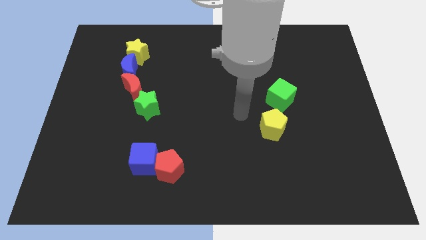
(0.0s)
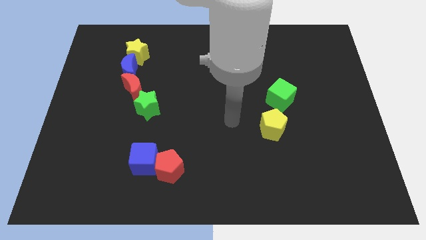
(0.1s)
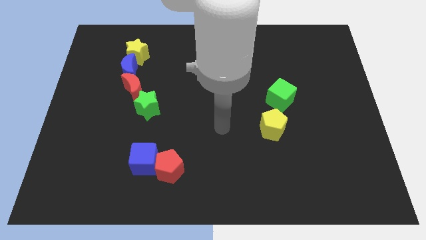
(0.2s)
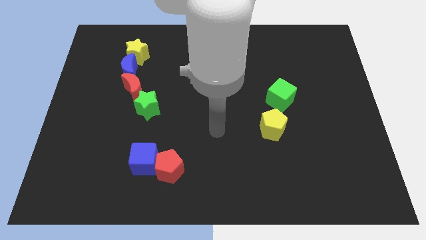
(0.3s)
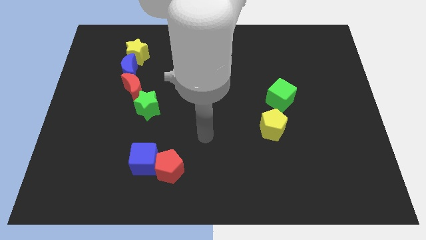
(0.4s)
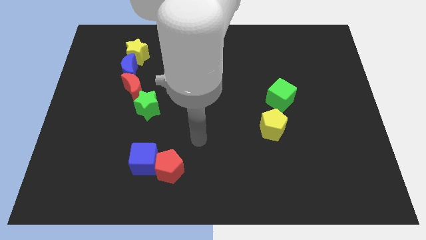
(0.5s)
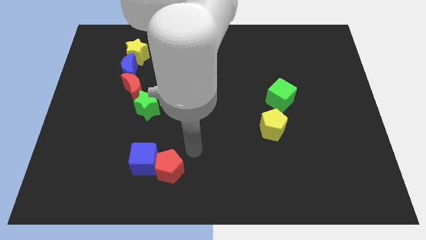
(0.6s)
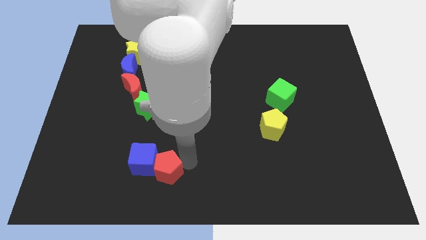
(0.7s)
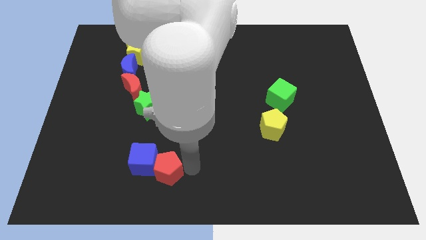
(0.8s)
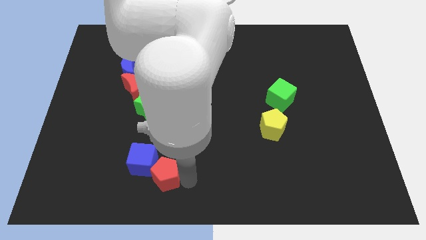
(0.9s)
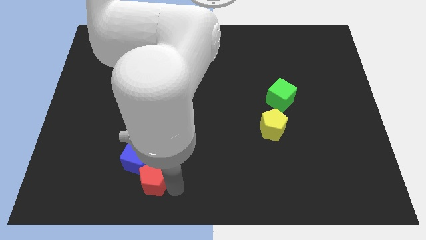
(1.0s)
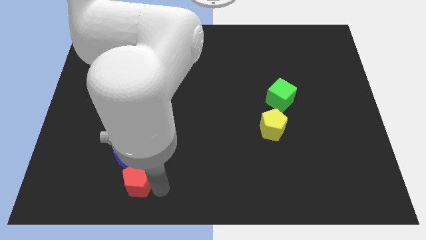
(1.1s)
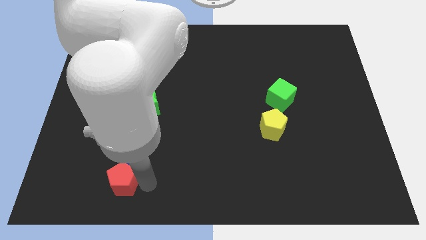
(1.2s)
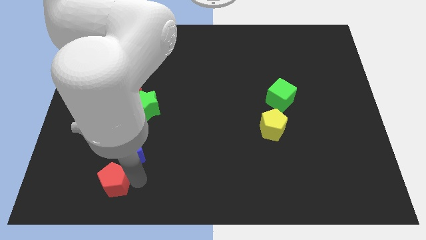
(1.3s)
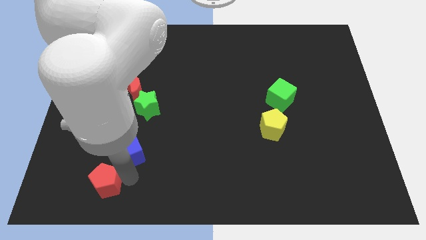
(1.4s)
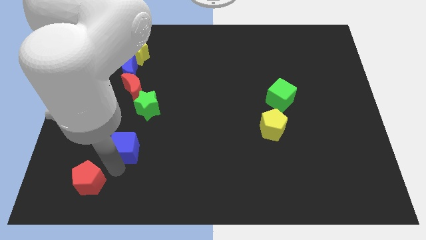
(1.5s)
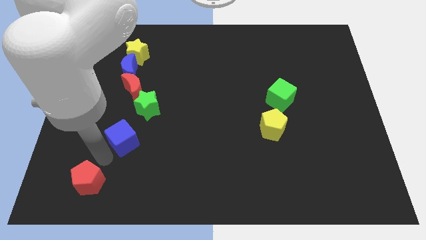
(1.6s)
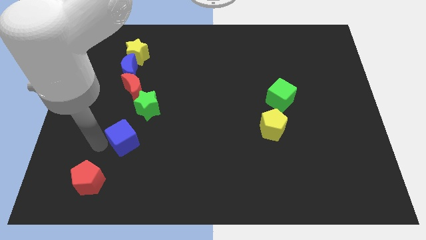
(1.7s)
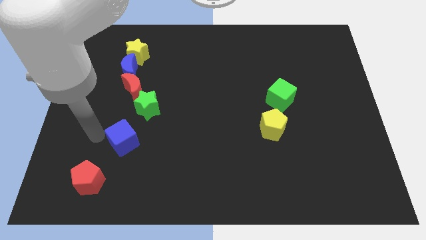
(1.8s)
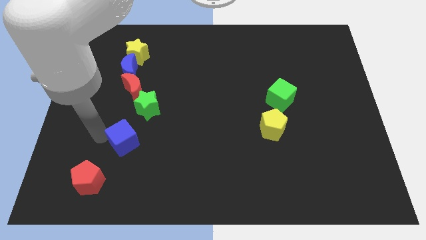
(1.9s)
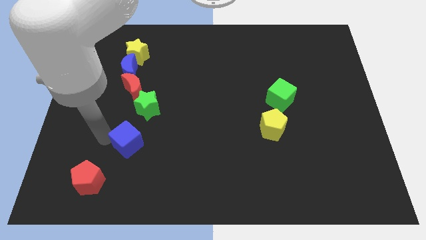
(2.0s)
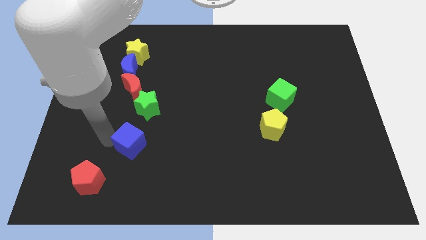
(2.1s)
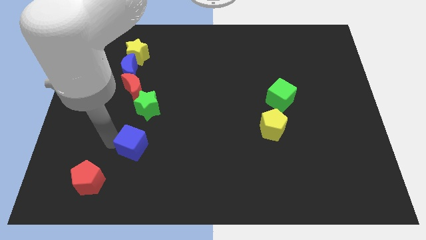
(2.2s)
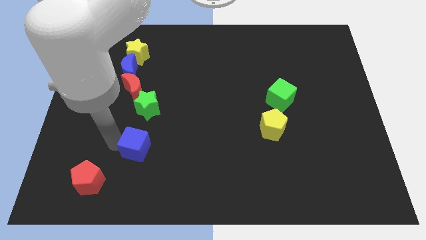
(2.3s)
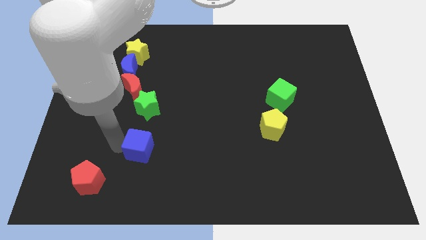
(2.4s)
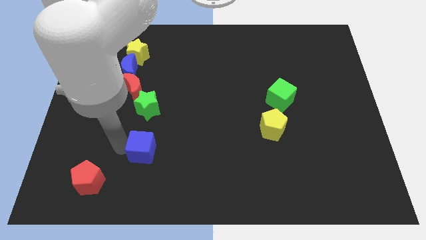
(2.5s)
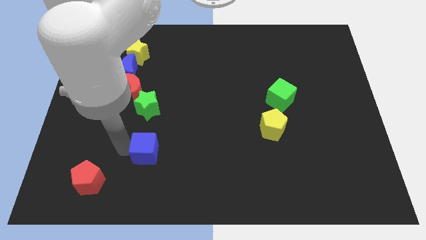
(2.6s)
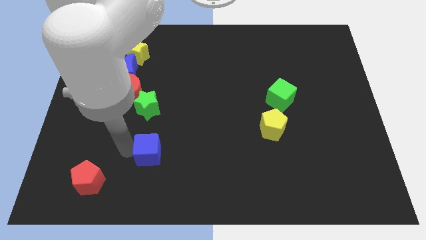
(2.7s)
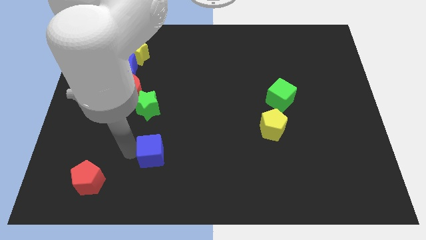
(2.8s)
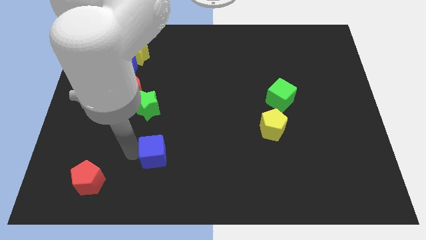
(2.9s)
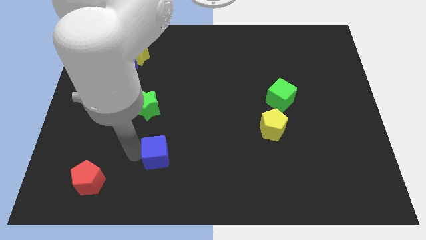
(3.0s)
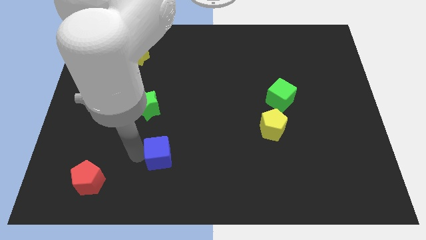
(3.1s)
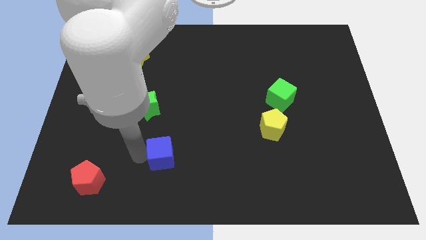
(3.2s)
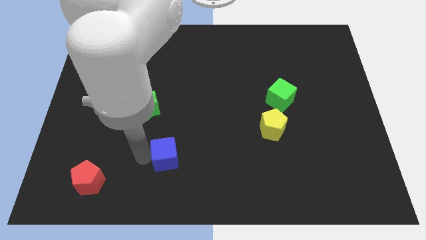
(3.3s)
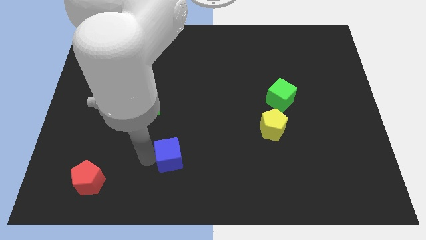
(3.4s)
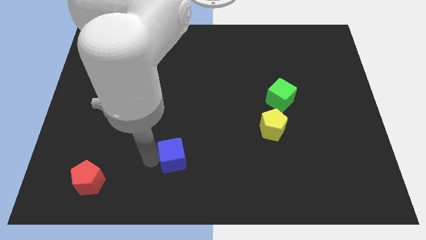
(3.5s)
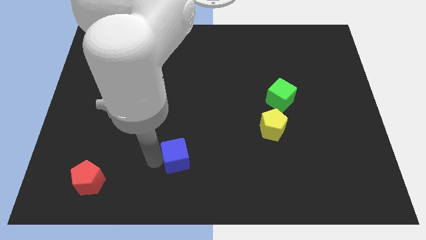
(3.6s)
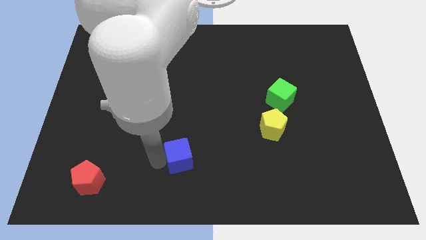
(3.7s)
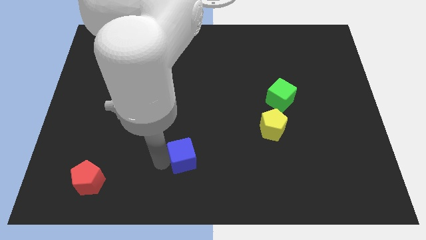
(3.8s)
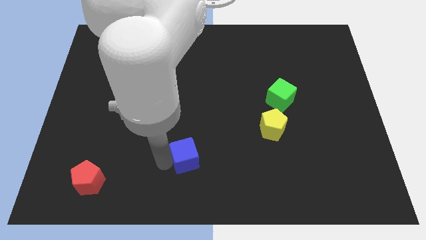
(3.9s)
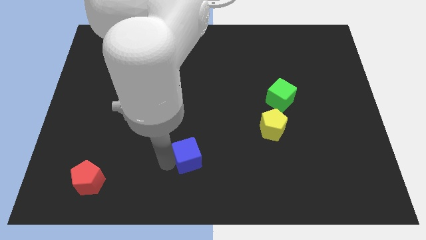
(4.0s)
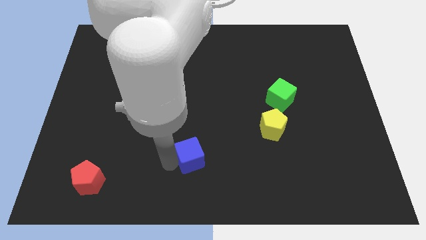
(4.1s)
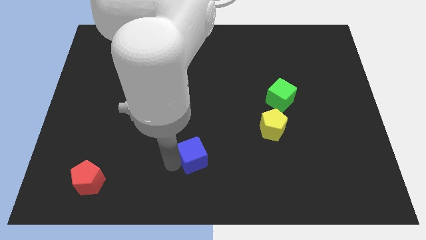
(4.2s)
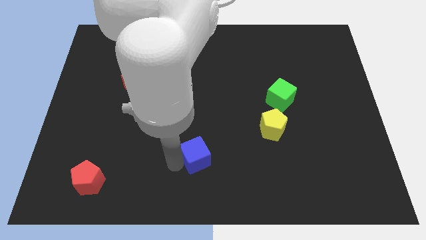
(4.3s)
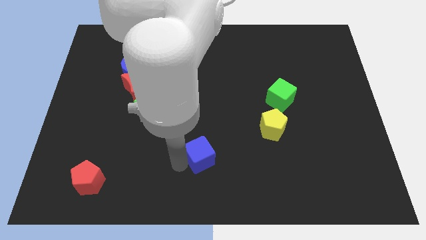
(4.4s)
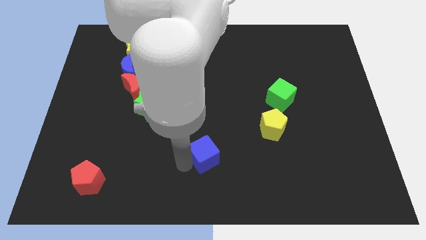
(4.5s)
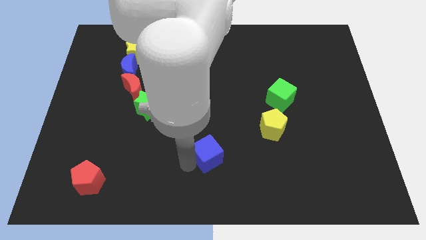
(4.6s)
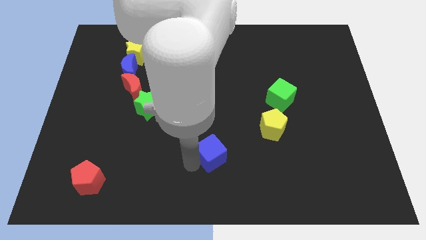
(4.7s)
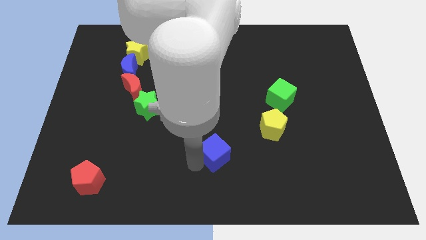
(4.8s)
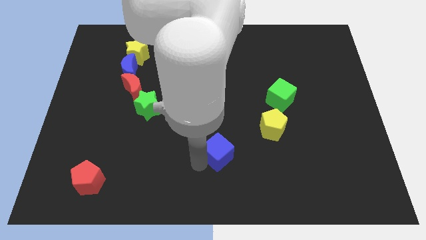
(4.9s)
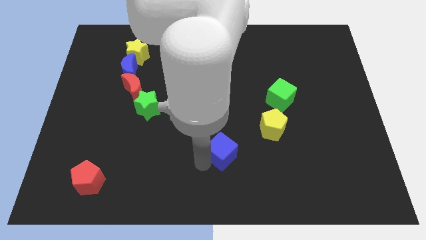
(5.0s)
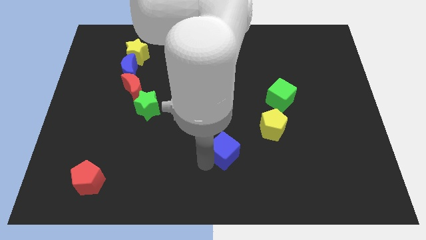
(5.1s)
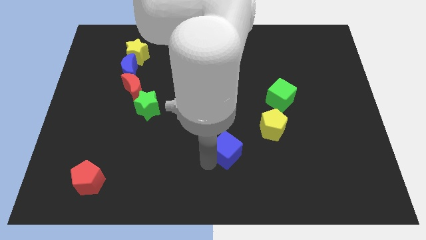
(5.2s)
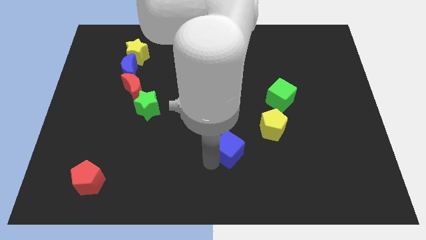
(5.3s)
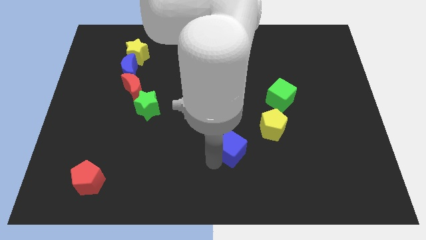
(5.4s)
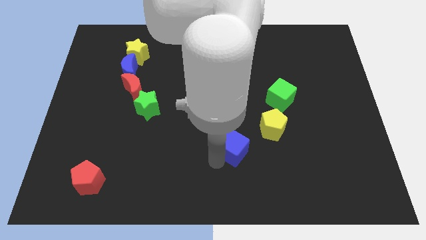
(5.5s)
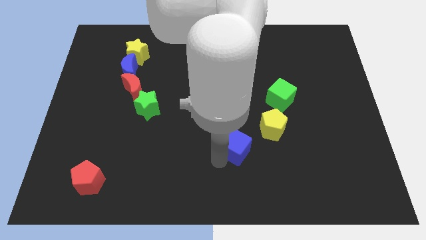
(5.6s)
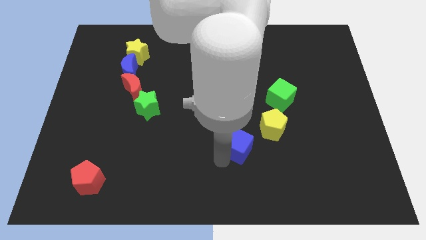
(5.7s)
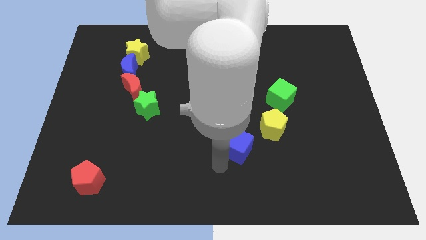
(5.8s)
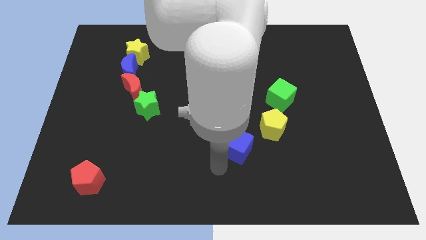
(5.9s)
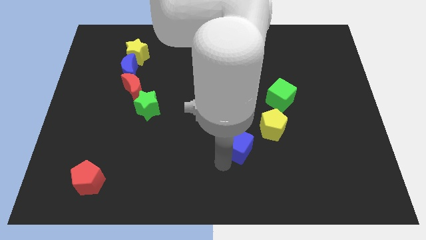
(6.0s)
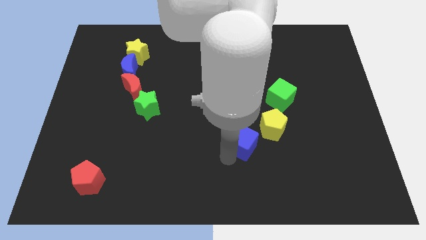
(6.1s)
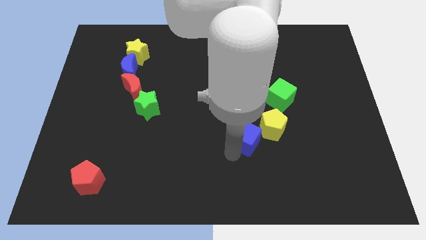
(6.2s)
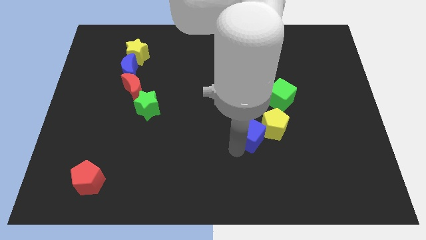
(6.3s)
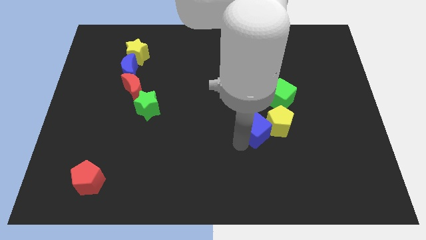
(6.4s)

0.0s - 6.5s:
slide the blue cube towards the yellow pentagon
